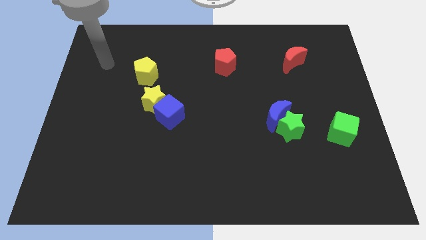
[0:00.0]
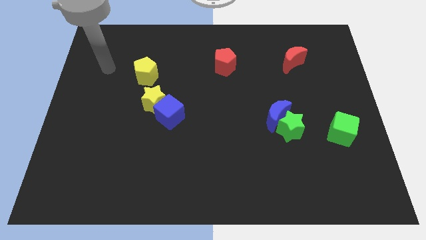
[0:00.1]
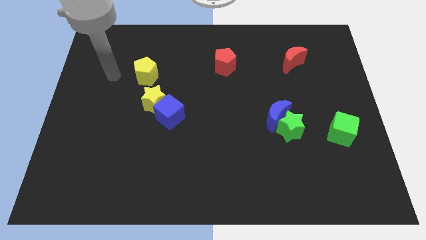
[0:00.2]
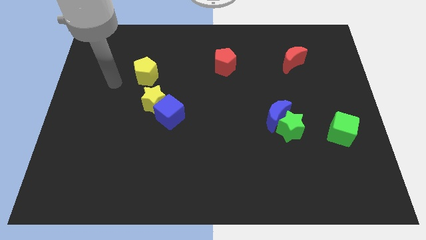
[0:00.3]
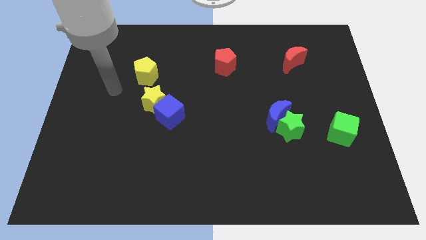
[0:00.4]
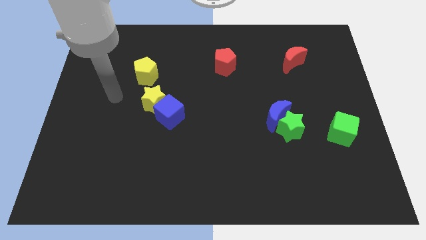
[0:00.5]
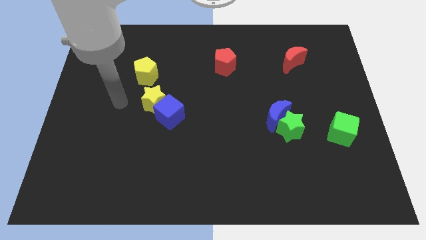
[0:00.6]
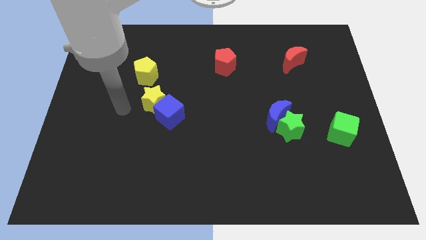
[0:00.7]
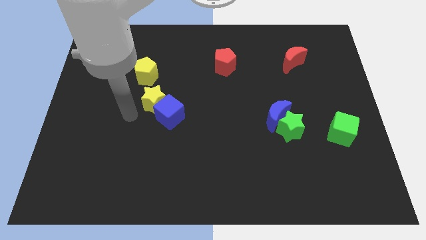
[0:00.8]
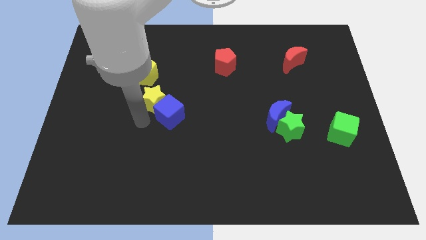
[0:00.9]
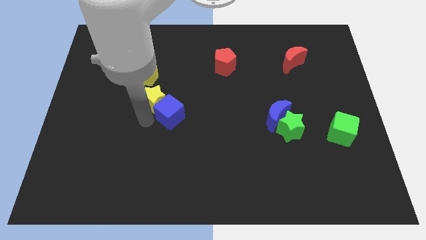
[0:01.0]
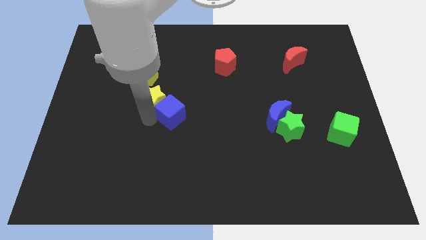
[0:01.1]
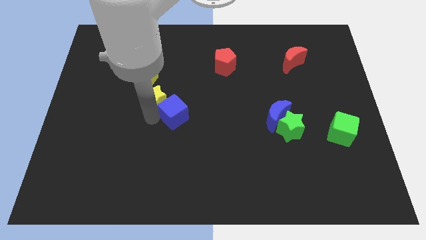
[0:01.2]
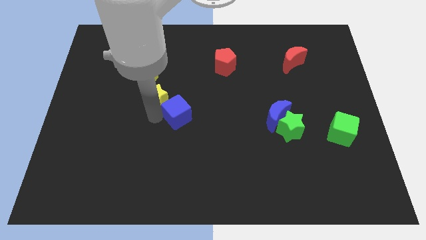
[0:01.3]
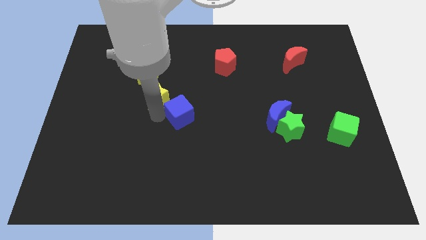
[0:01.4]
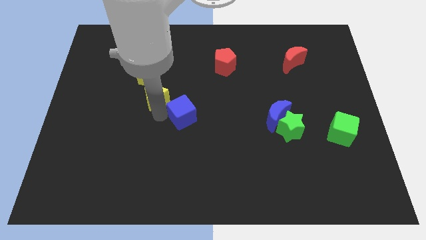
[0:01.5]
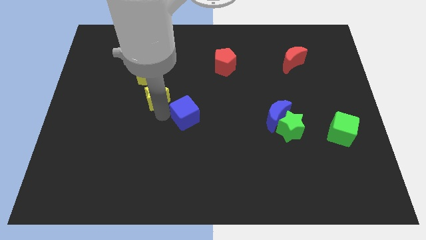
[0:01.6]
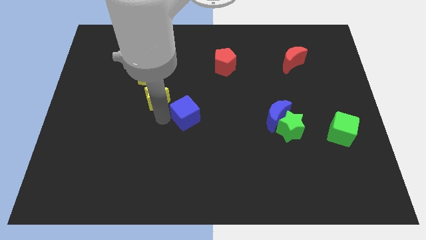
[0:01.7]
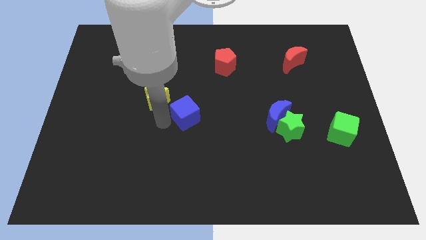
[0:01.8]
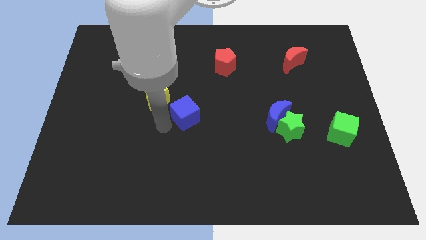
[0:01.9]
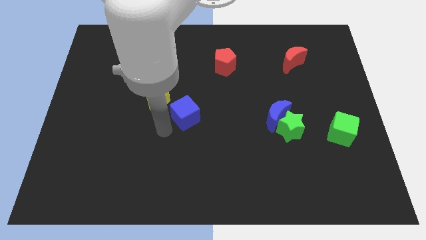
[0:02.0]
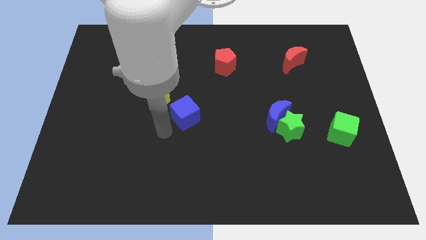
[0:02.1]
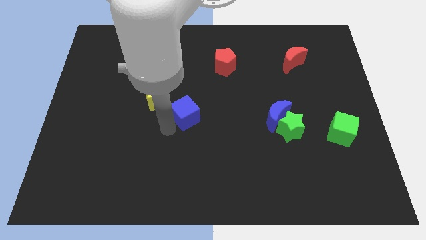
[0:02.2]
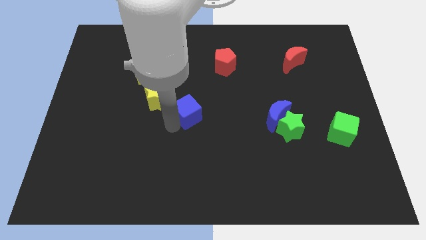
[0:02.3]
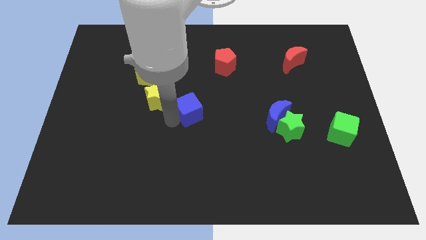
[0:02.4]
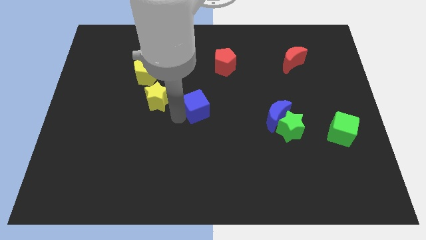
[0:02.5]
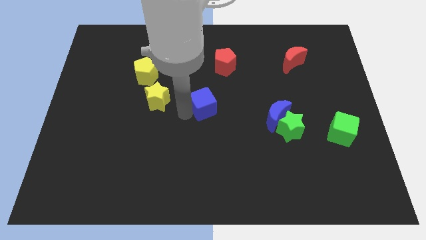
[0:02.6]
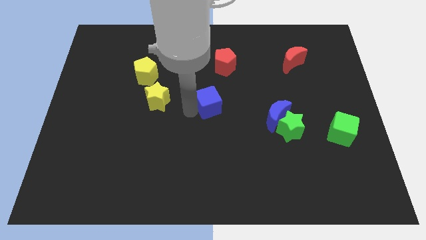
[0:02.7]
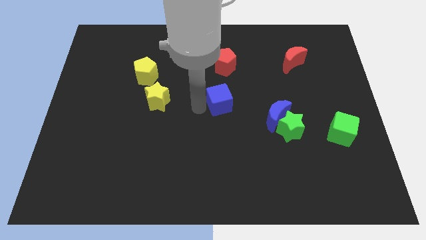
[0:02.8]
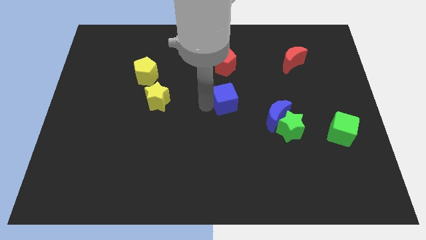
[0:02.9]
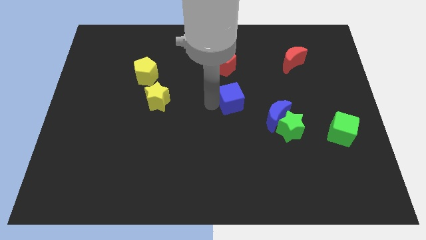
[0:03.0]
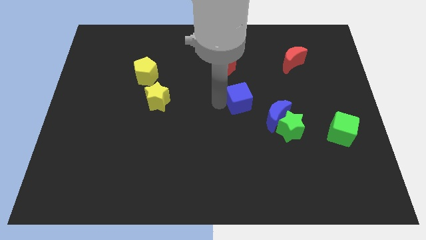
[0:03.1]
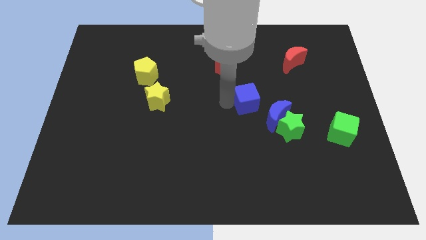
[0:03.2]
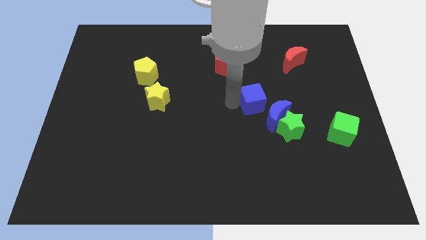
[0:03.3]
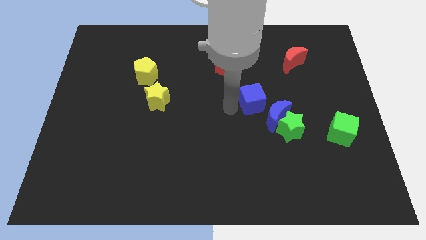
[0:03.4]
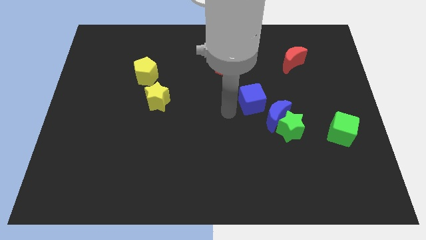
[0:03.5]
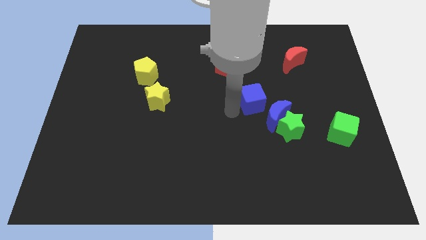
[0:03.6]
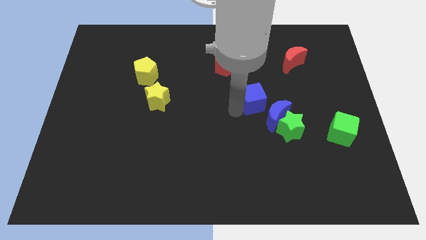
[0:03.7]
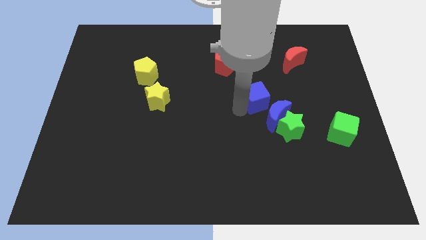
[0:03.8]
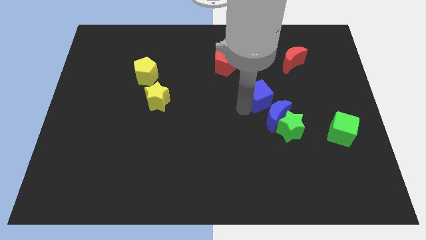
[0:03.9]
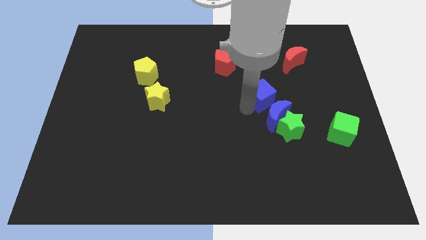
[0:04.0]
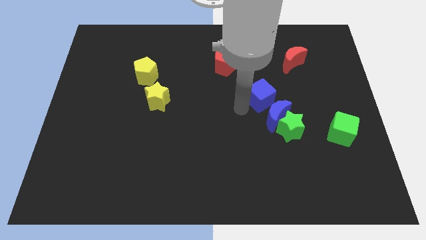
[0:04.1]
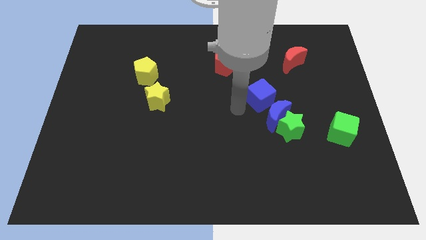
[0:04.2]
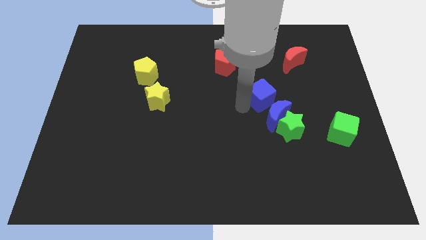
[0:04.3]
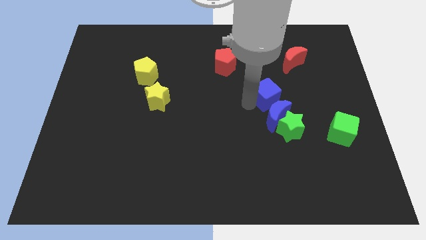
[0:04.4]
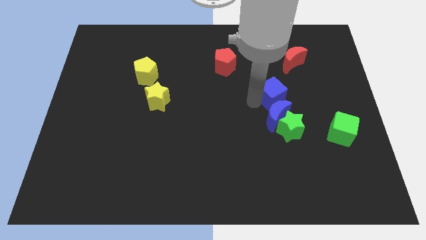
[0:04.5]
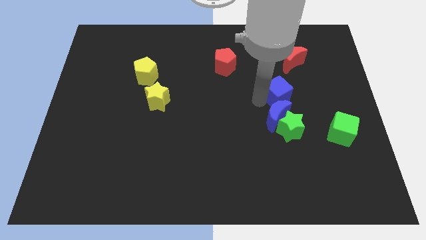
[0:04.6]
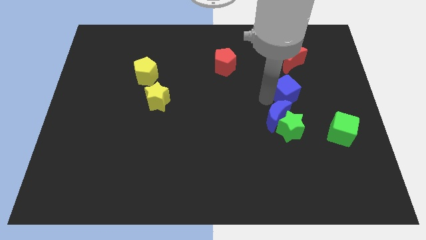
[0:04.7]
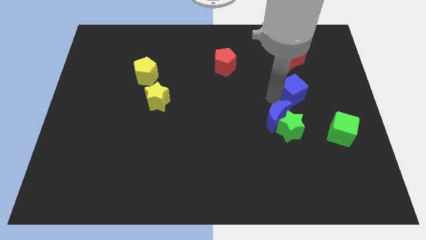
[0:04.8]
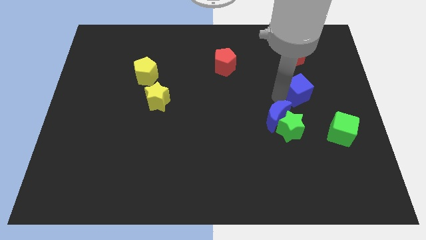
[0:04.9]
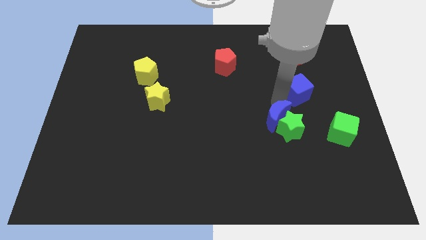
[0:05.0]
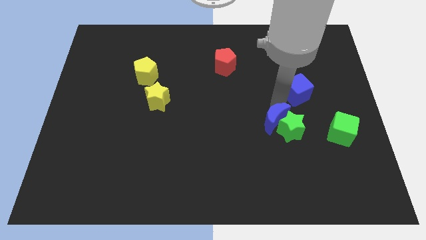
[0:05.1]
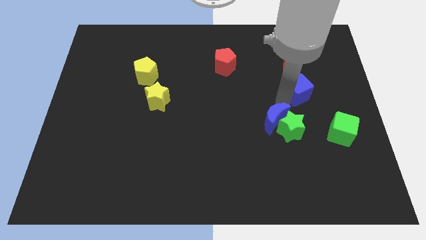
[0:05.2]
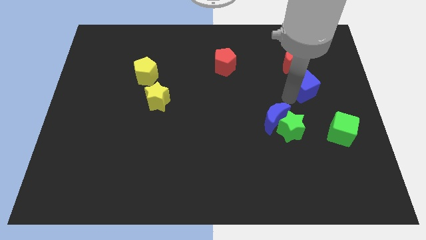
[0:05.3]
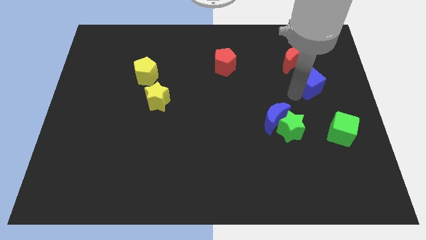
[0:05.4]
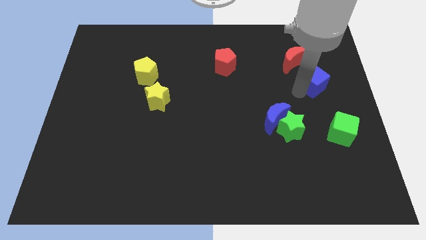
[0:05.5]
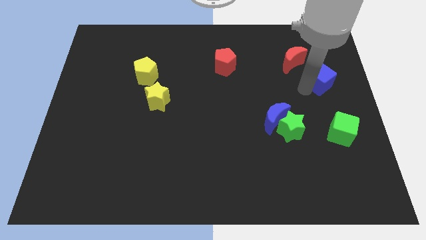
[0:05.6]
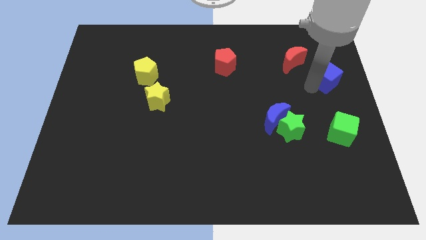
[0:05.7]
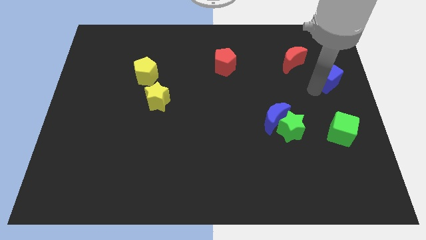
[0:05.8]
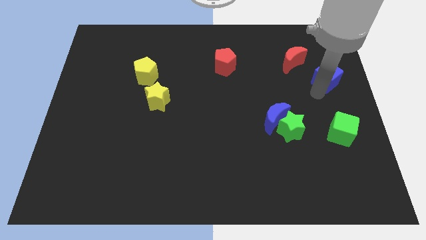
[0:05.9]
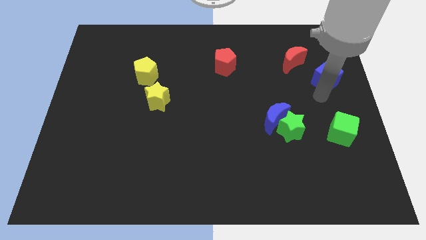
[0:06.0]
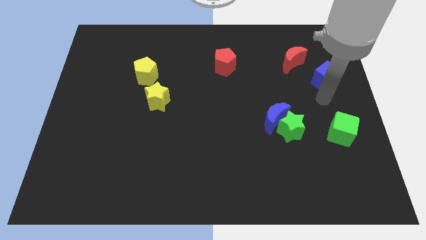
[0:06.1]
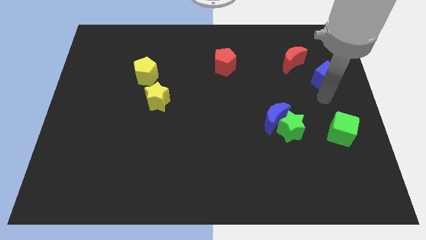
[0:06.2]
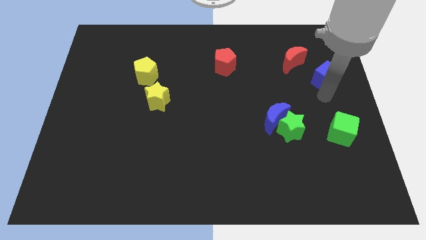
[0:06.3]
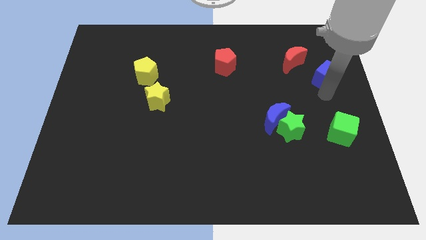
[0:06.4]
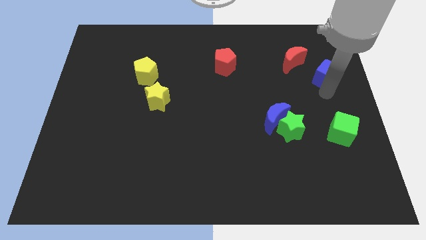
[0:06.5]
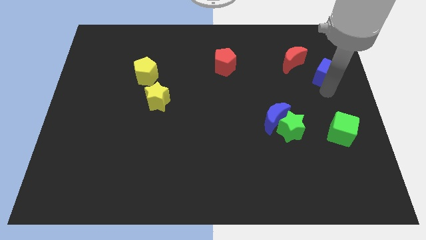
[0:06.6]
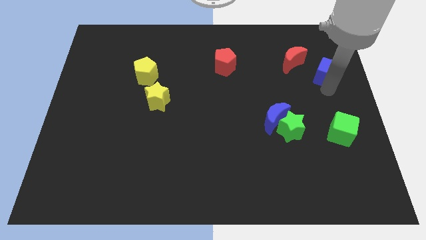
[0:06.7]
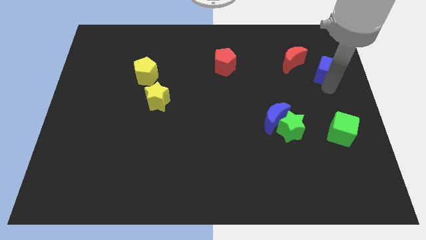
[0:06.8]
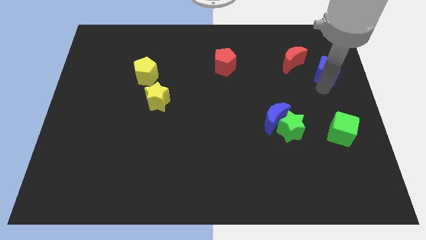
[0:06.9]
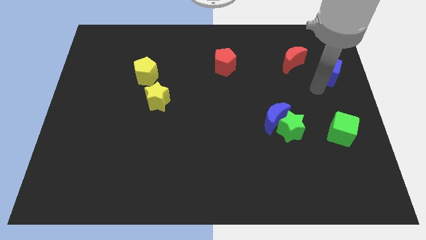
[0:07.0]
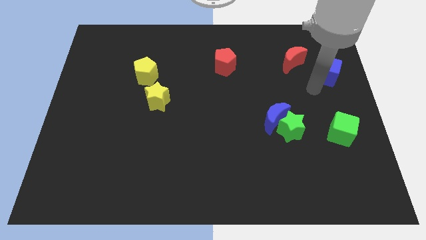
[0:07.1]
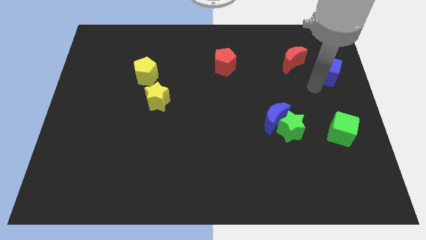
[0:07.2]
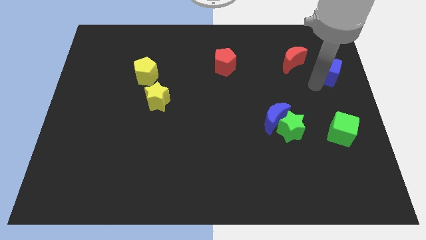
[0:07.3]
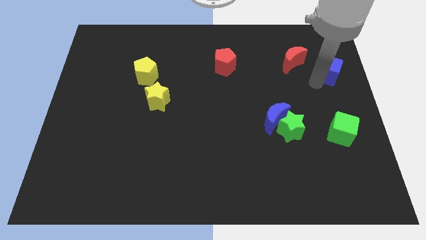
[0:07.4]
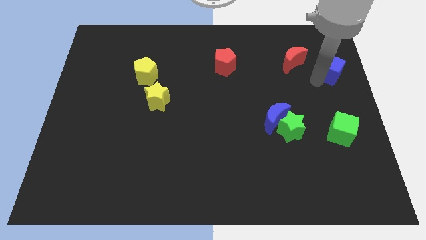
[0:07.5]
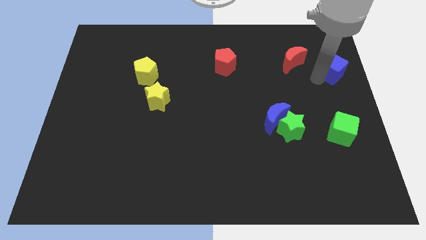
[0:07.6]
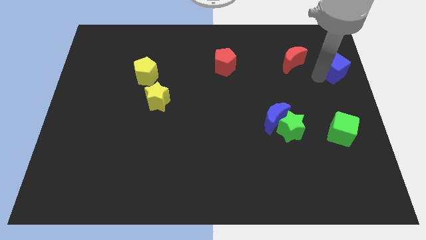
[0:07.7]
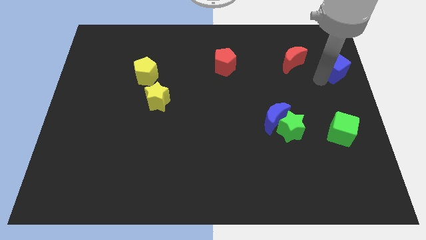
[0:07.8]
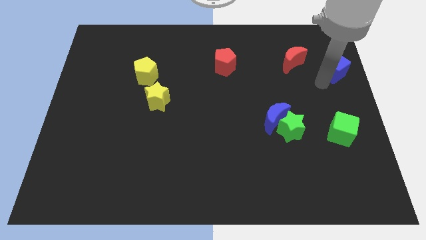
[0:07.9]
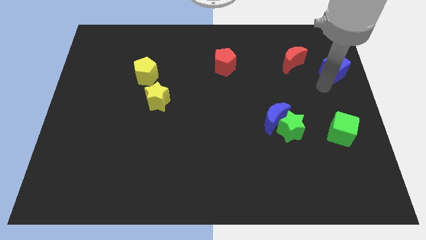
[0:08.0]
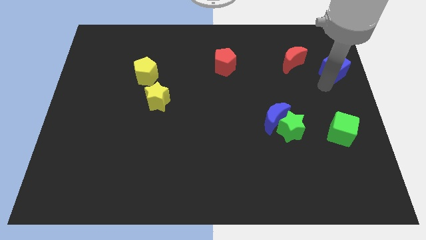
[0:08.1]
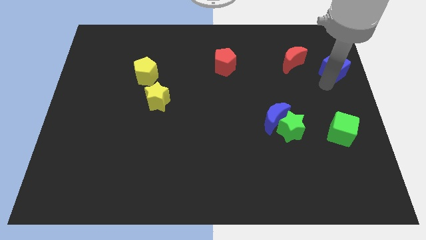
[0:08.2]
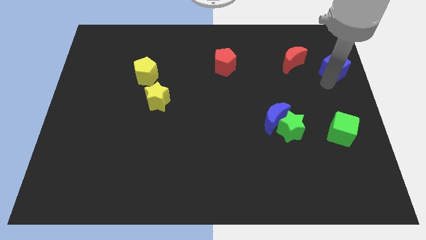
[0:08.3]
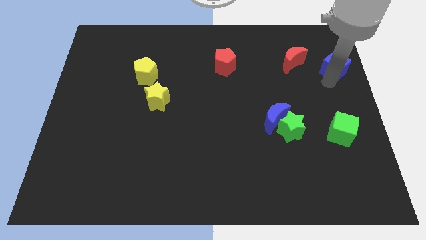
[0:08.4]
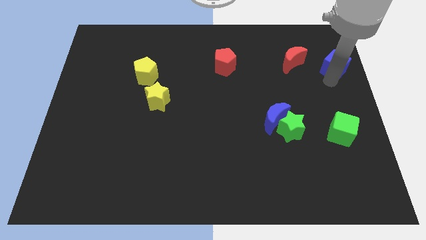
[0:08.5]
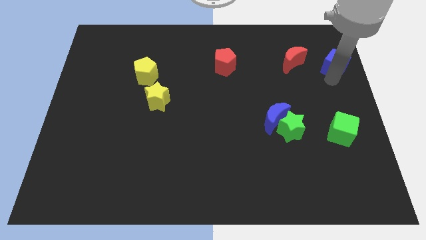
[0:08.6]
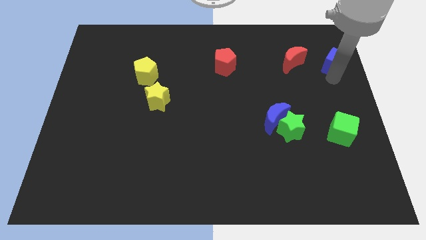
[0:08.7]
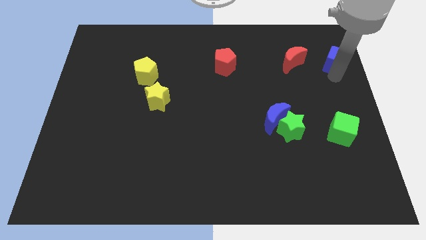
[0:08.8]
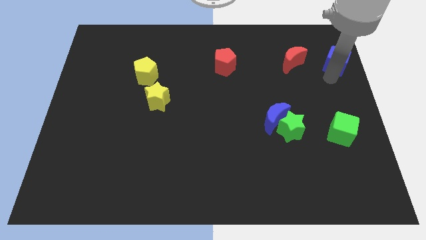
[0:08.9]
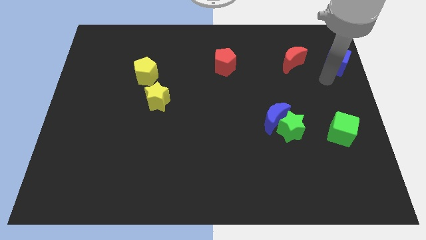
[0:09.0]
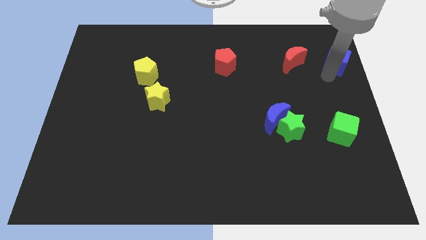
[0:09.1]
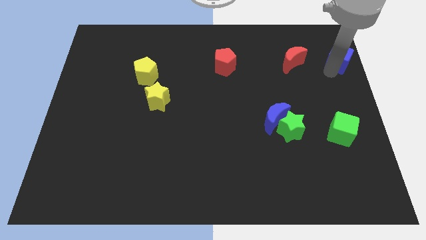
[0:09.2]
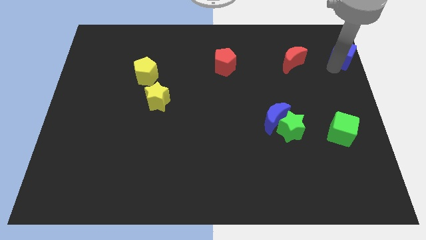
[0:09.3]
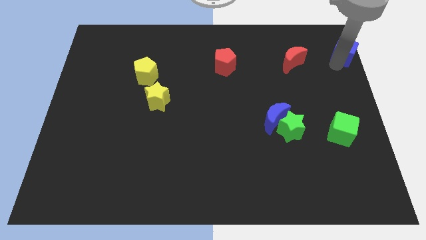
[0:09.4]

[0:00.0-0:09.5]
slide the blue cube to the top right
